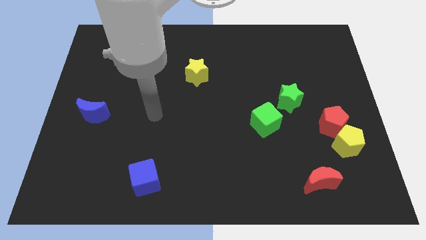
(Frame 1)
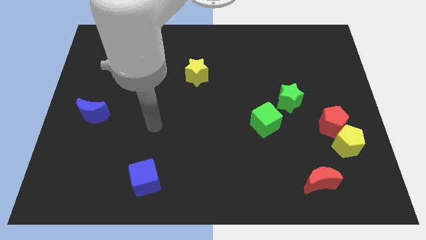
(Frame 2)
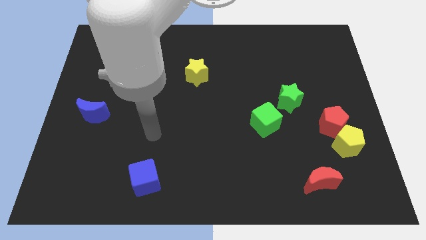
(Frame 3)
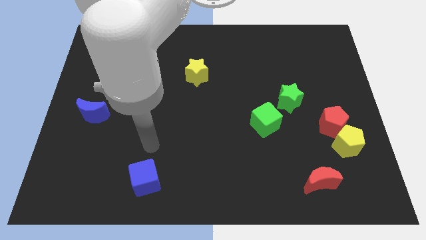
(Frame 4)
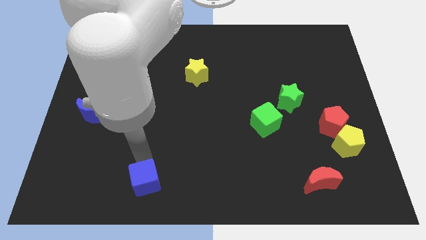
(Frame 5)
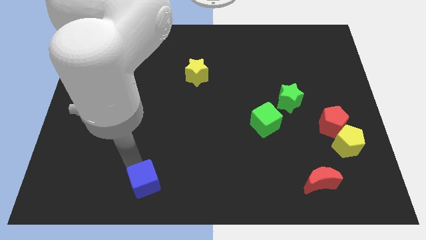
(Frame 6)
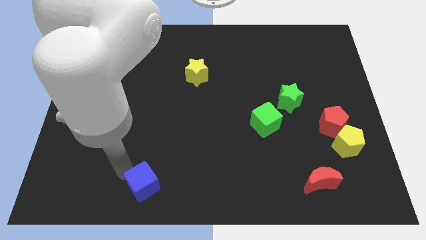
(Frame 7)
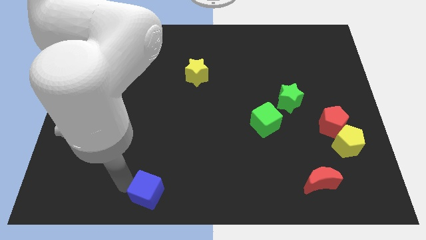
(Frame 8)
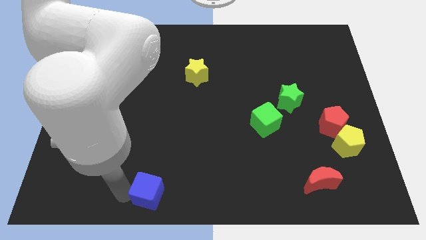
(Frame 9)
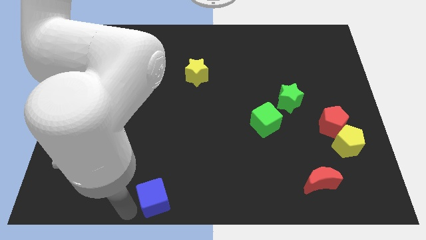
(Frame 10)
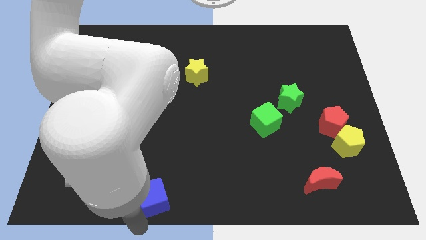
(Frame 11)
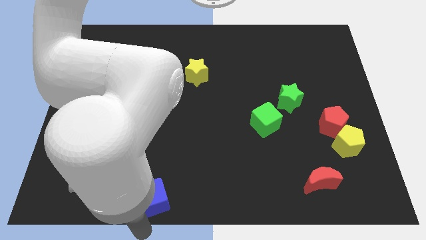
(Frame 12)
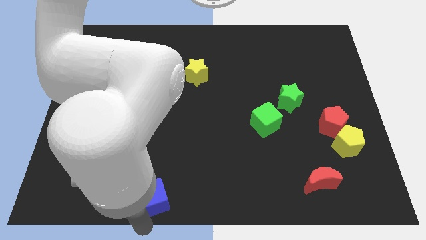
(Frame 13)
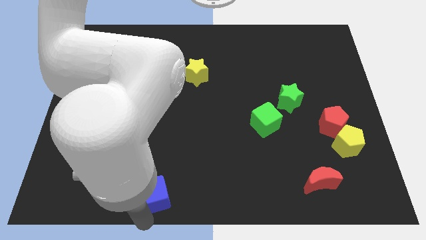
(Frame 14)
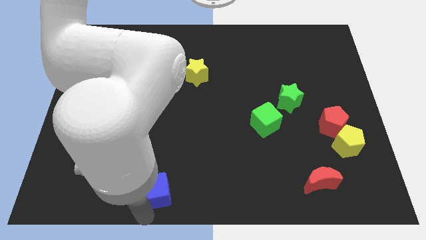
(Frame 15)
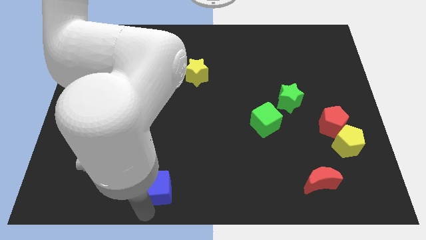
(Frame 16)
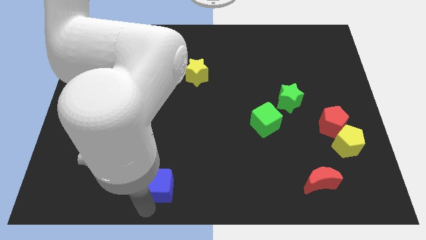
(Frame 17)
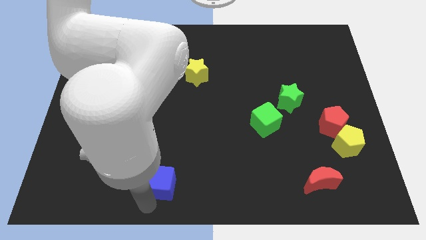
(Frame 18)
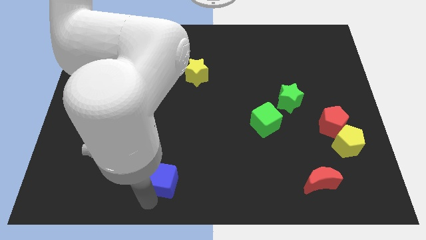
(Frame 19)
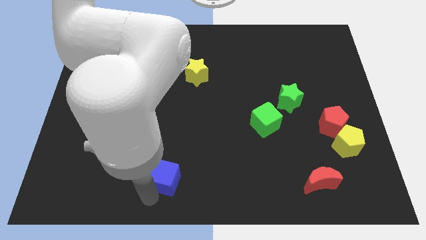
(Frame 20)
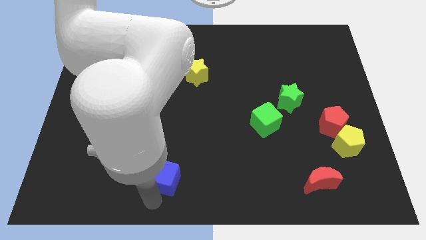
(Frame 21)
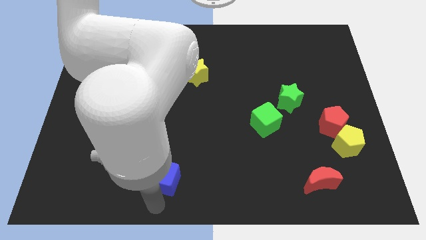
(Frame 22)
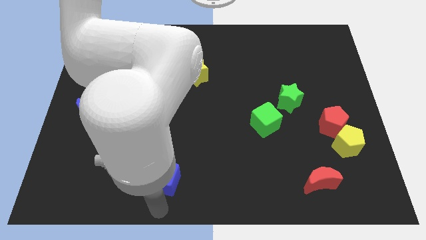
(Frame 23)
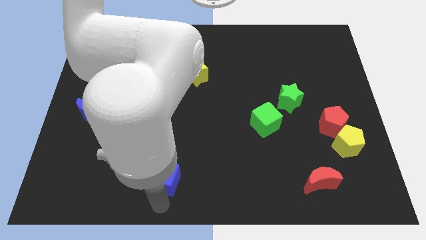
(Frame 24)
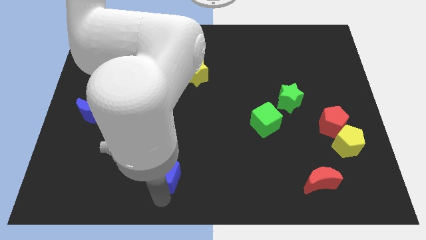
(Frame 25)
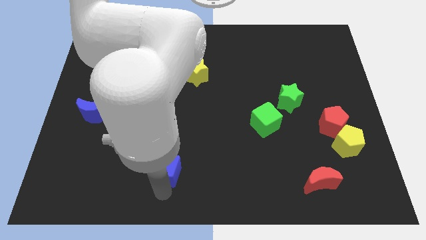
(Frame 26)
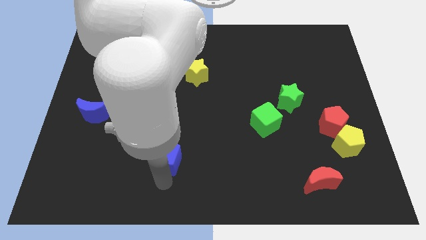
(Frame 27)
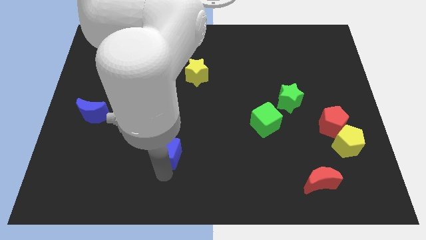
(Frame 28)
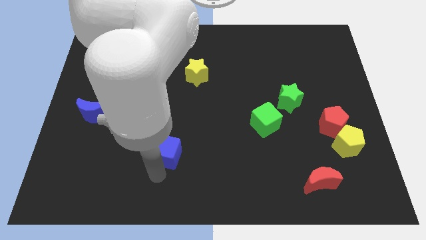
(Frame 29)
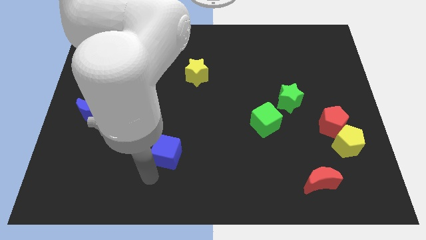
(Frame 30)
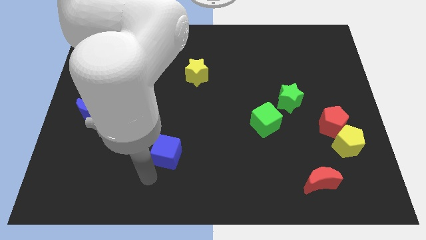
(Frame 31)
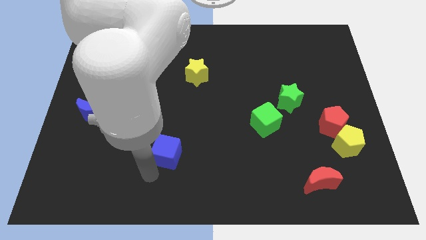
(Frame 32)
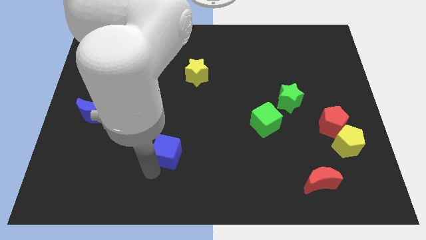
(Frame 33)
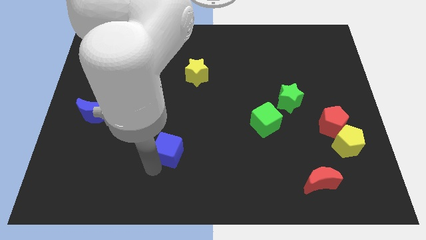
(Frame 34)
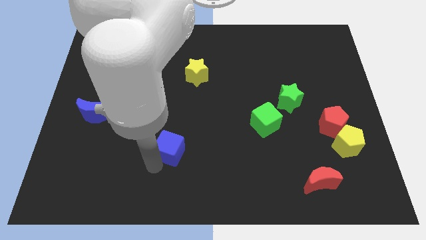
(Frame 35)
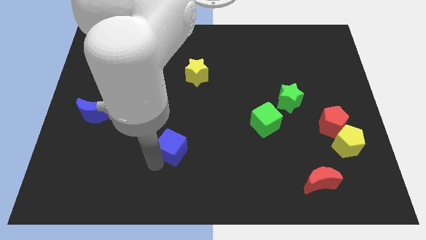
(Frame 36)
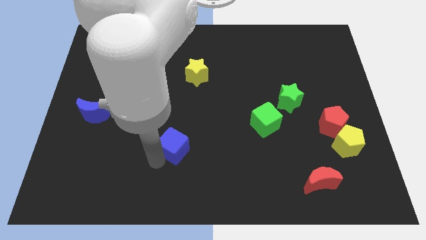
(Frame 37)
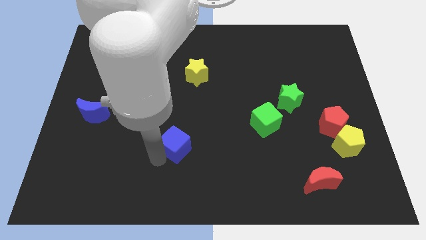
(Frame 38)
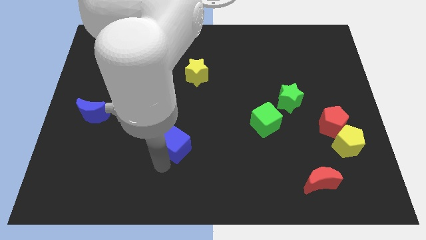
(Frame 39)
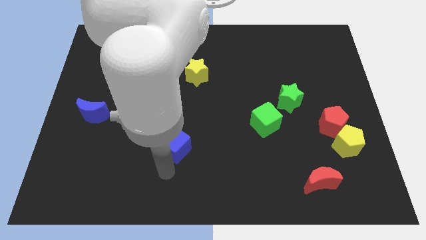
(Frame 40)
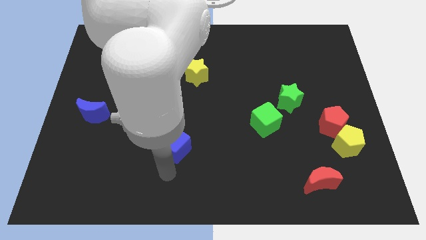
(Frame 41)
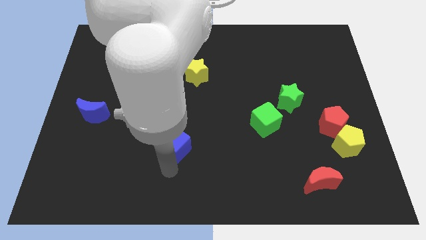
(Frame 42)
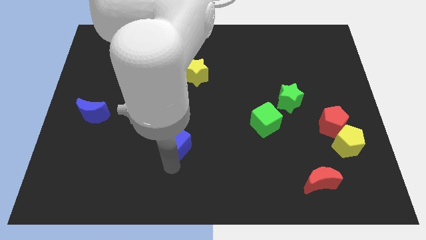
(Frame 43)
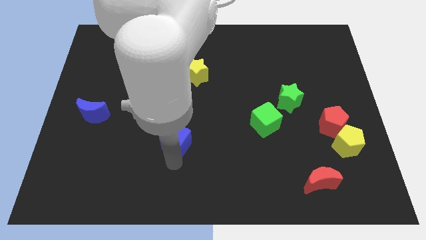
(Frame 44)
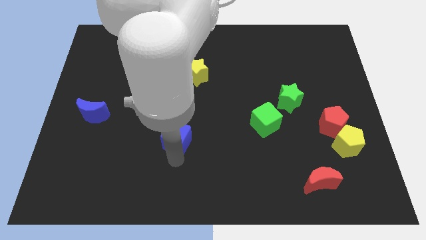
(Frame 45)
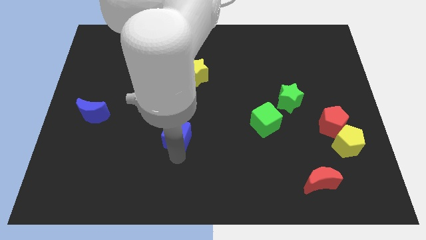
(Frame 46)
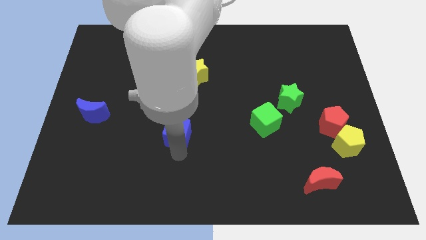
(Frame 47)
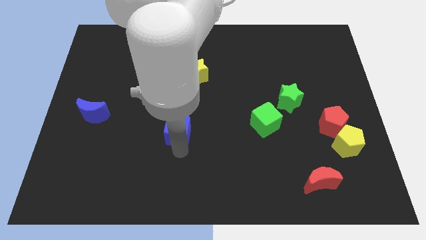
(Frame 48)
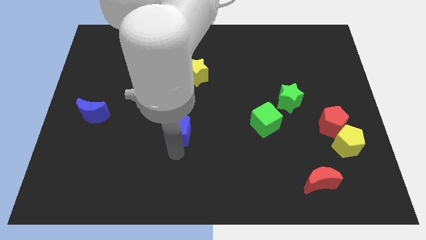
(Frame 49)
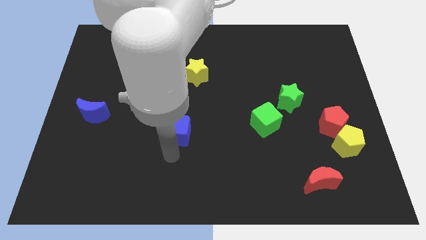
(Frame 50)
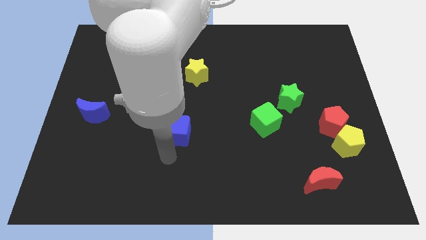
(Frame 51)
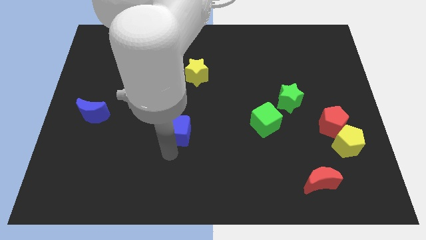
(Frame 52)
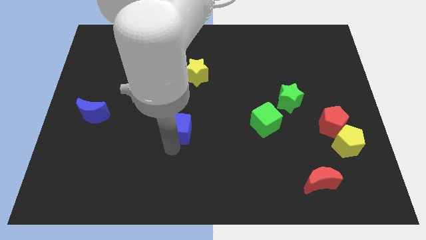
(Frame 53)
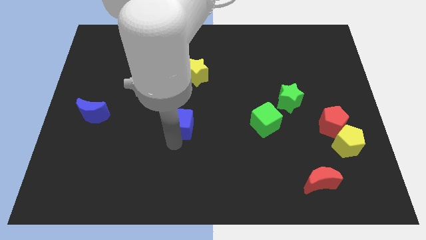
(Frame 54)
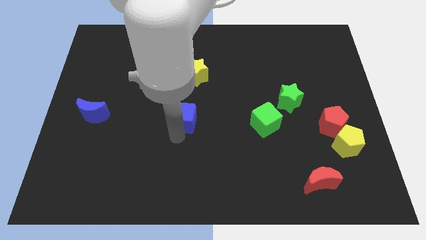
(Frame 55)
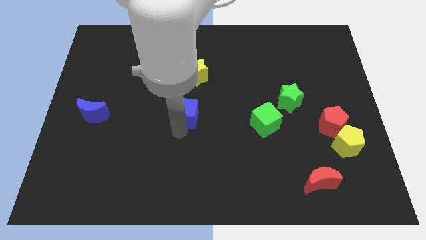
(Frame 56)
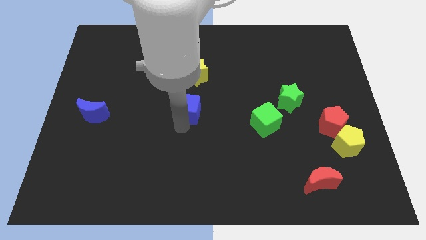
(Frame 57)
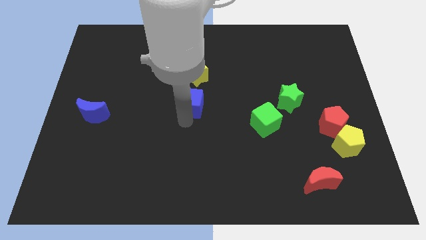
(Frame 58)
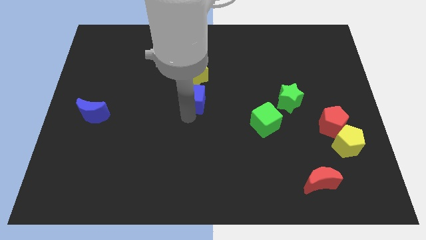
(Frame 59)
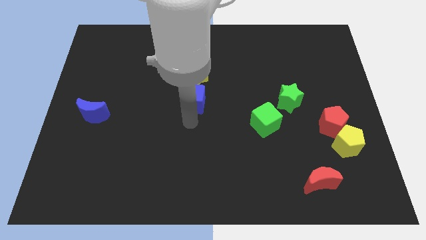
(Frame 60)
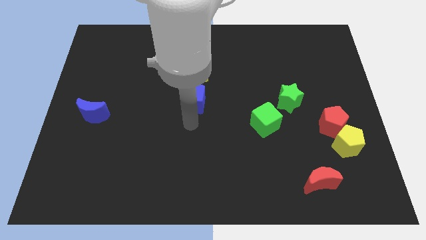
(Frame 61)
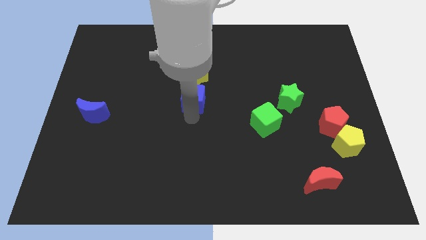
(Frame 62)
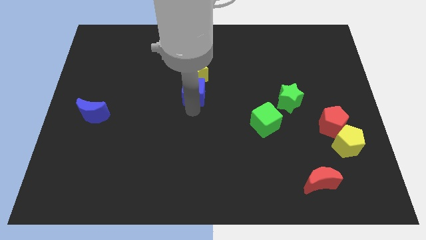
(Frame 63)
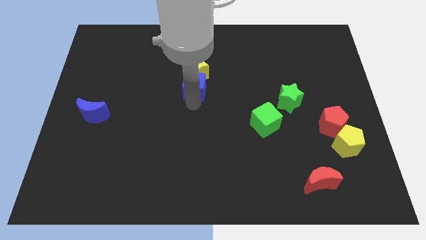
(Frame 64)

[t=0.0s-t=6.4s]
put the blue cube next to the yellow star
